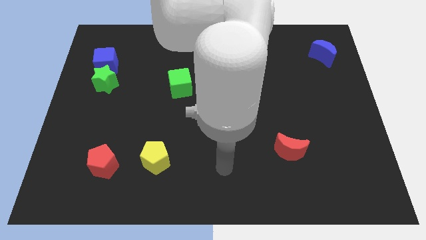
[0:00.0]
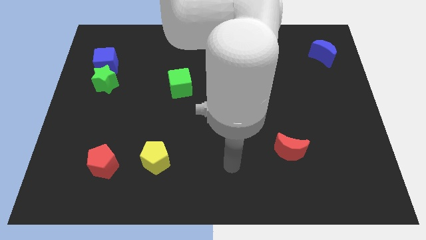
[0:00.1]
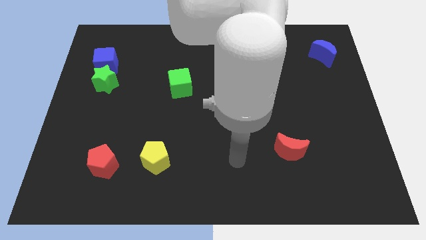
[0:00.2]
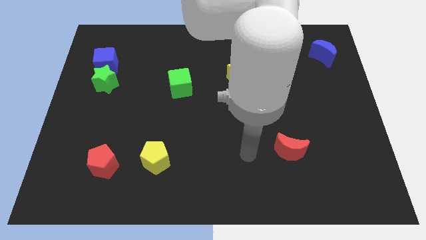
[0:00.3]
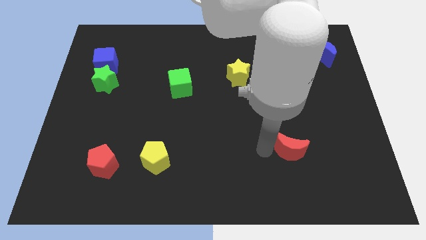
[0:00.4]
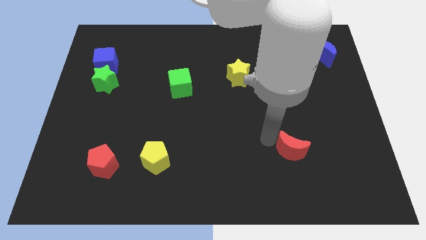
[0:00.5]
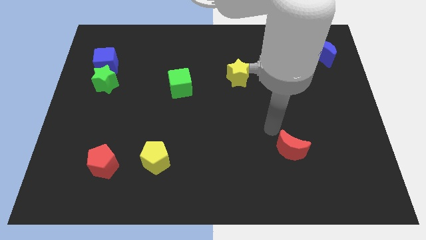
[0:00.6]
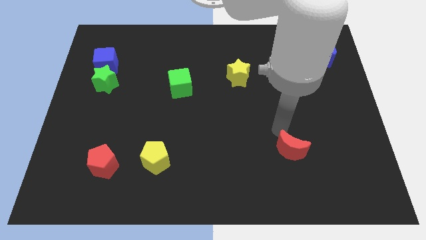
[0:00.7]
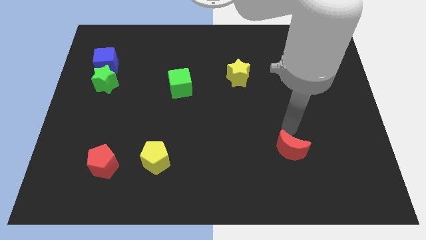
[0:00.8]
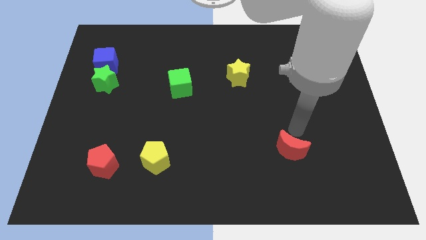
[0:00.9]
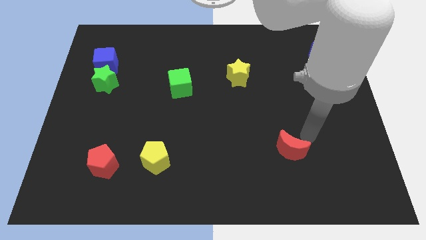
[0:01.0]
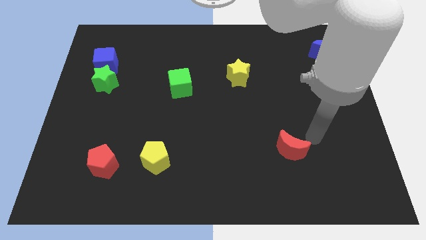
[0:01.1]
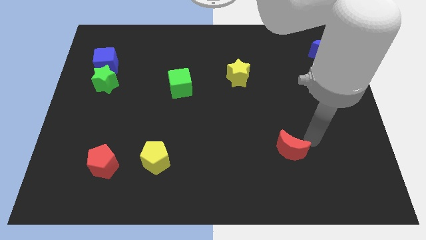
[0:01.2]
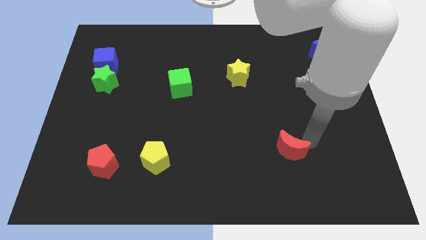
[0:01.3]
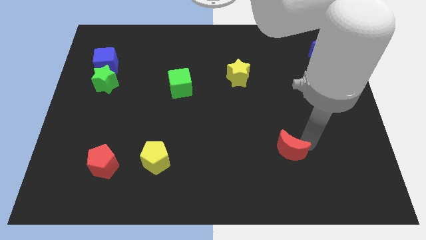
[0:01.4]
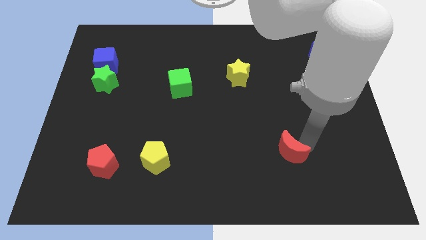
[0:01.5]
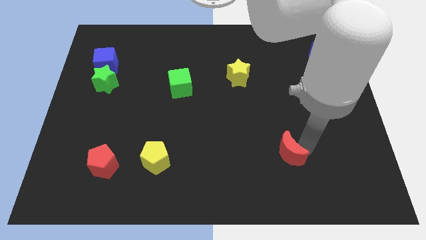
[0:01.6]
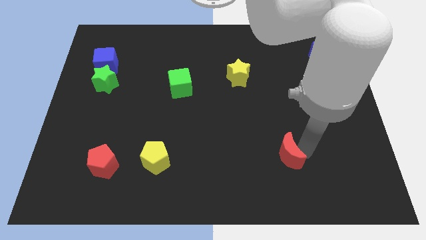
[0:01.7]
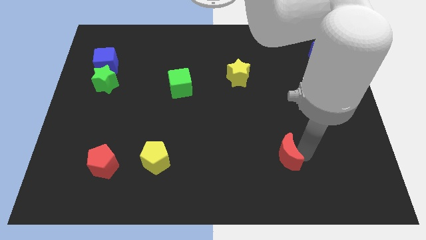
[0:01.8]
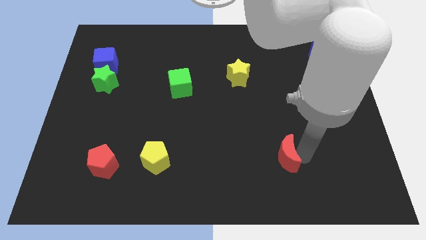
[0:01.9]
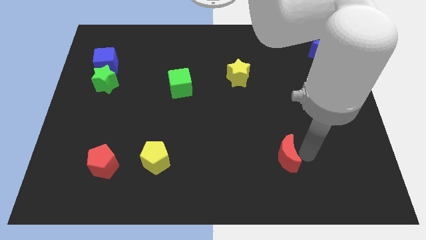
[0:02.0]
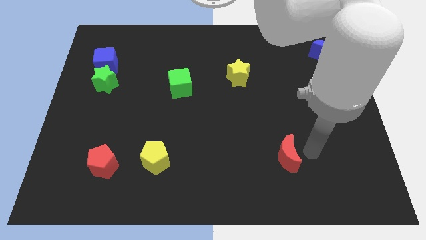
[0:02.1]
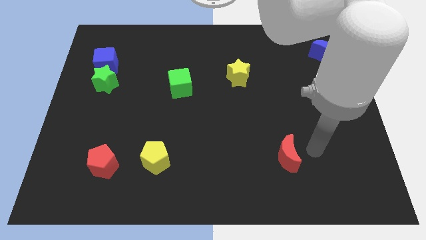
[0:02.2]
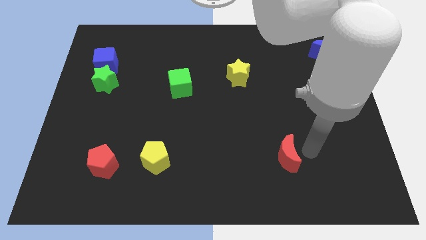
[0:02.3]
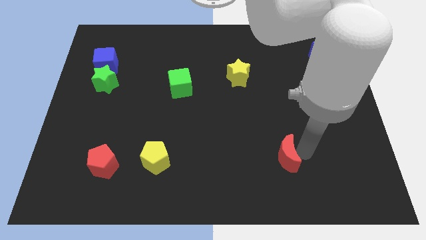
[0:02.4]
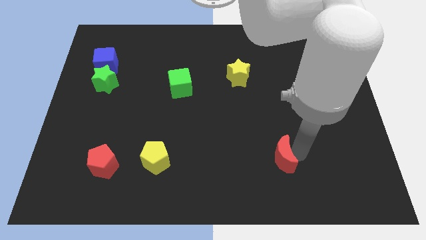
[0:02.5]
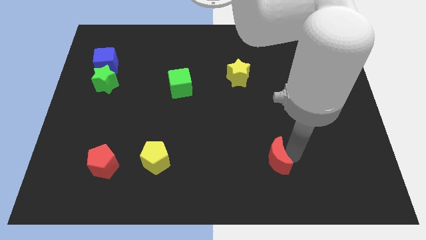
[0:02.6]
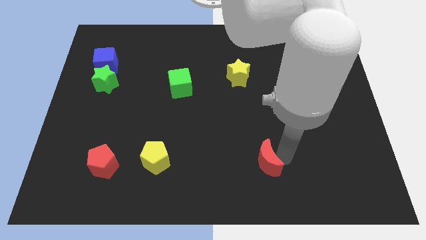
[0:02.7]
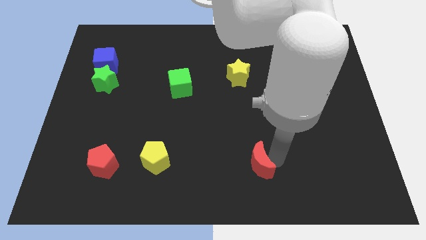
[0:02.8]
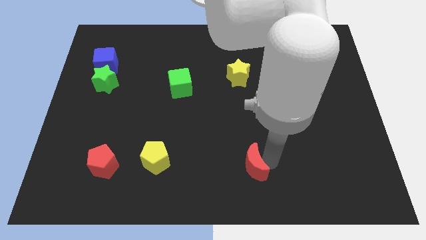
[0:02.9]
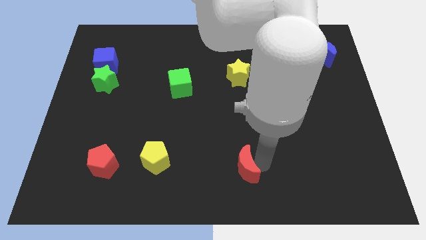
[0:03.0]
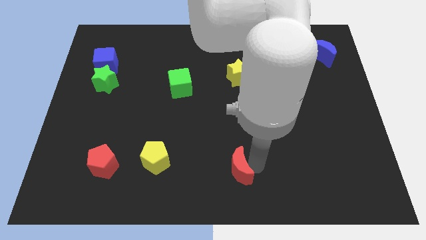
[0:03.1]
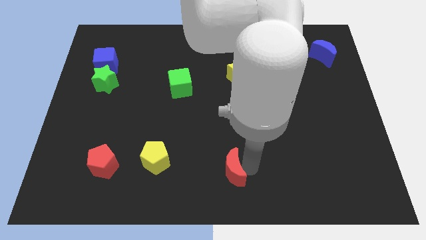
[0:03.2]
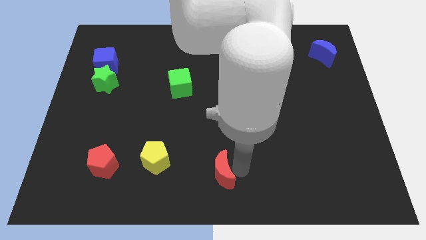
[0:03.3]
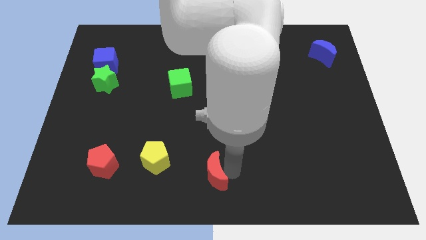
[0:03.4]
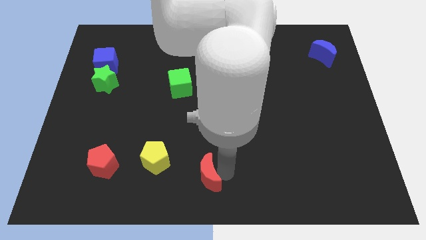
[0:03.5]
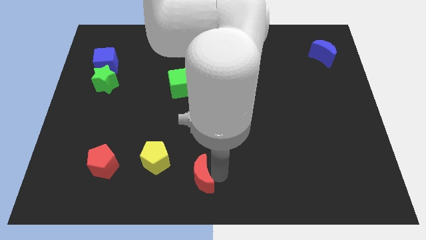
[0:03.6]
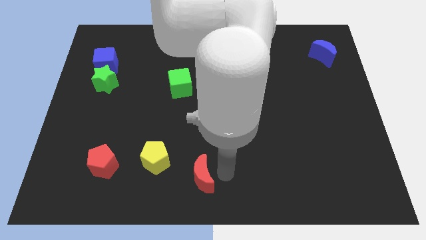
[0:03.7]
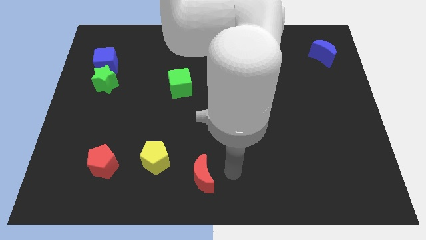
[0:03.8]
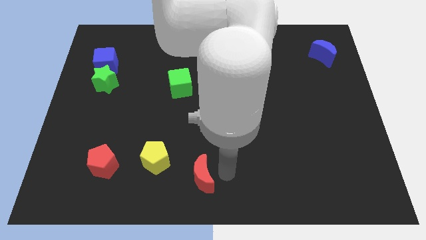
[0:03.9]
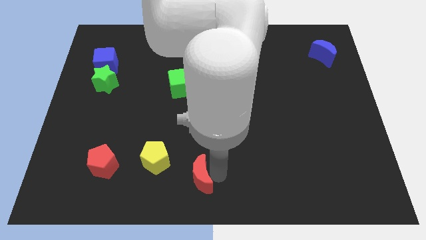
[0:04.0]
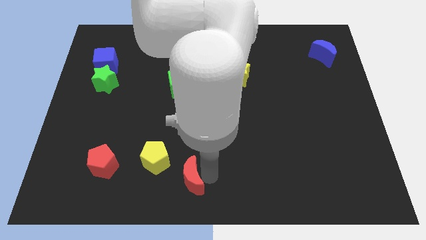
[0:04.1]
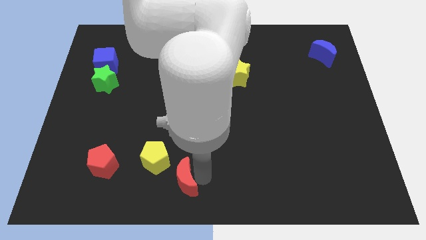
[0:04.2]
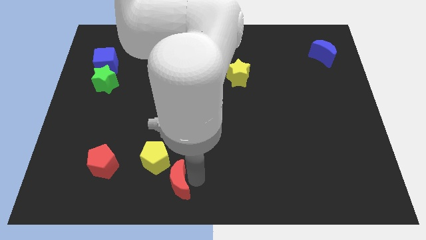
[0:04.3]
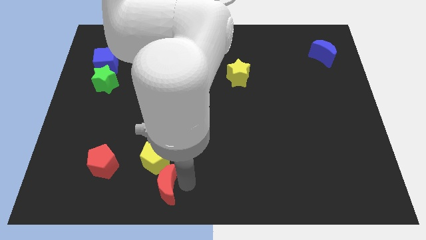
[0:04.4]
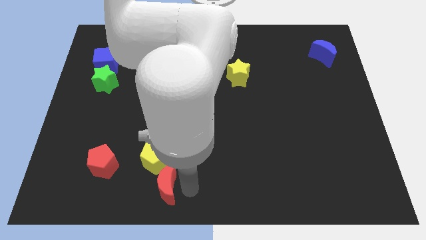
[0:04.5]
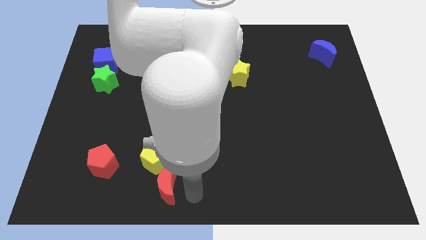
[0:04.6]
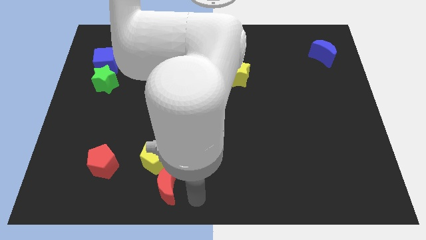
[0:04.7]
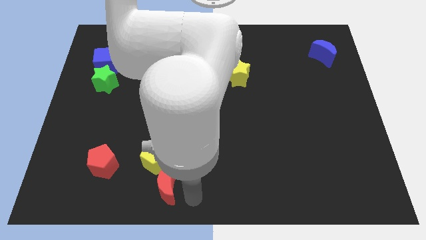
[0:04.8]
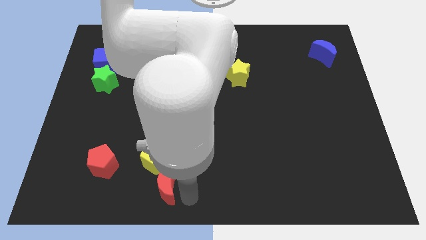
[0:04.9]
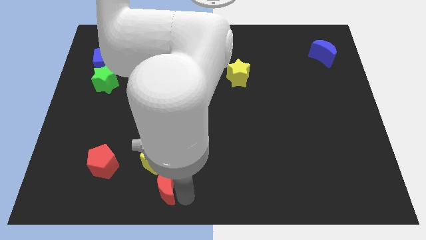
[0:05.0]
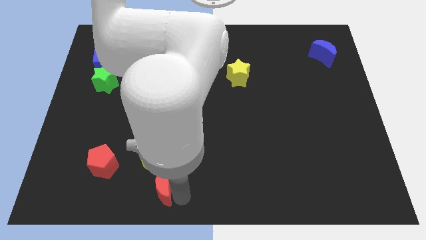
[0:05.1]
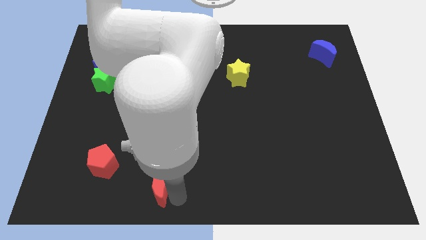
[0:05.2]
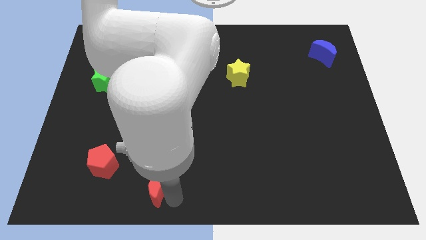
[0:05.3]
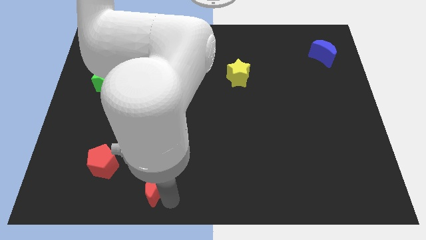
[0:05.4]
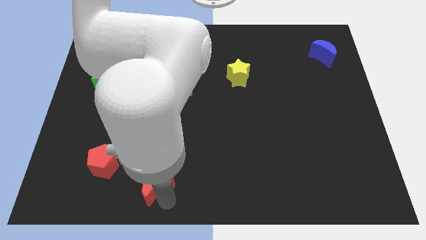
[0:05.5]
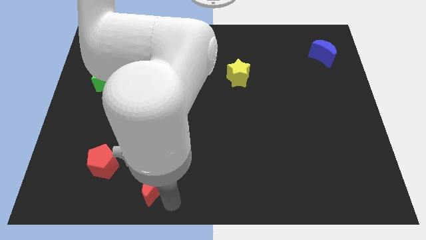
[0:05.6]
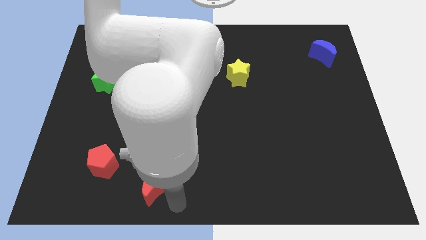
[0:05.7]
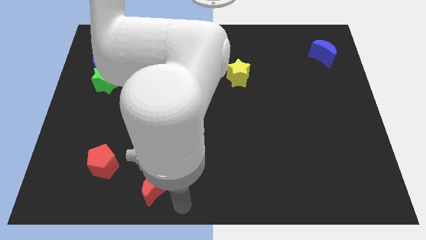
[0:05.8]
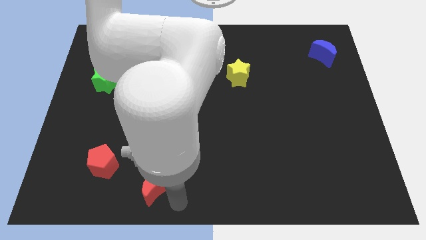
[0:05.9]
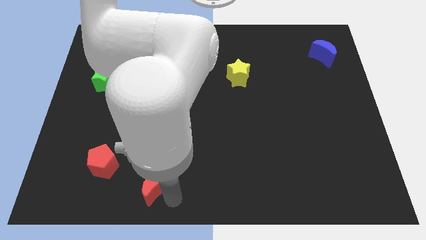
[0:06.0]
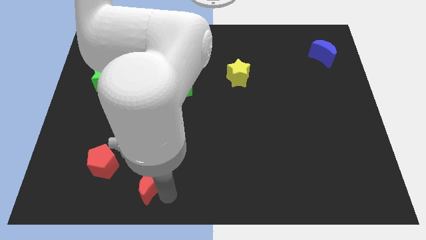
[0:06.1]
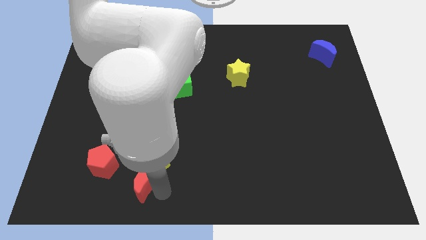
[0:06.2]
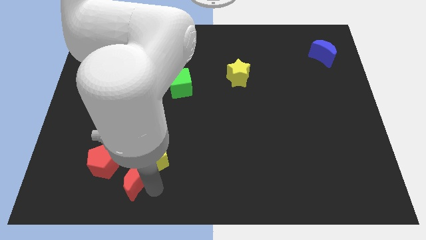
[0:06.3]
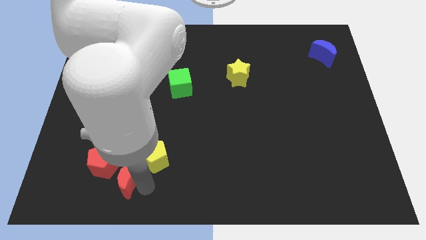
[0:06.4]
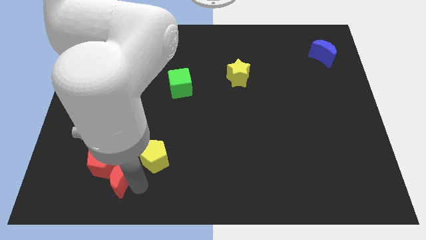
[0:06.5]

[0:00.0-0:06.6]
move the red moon close to the red pentagon

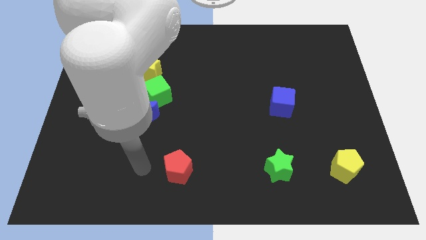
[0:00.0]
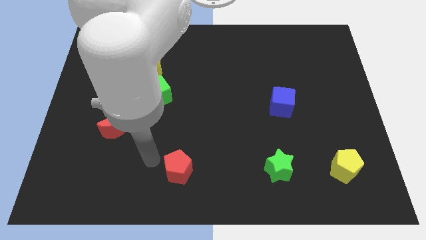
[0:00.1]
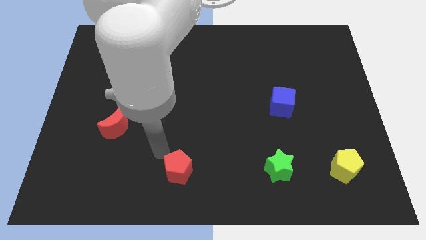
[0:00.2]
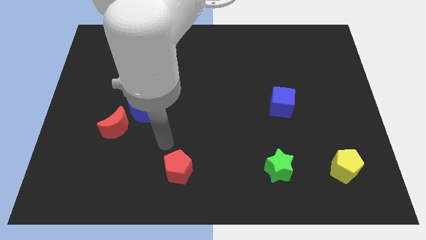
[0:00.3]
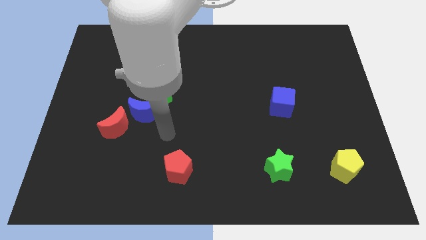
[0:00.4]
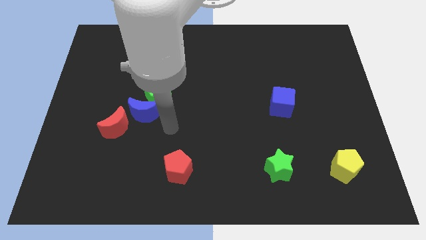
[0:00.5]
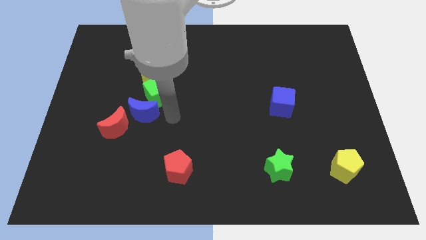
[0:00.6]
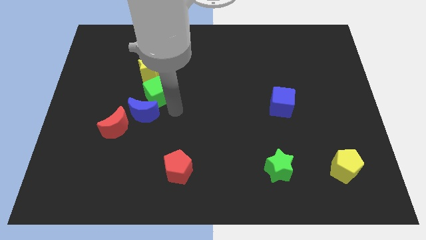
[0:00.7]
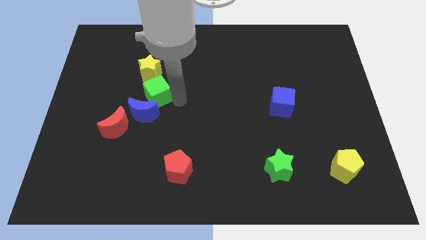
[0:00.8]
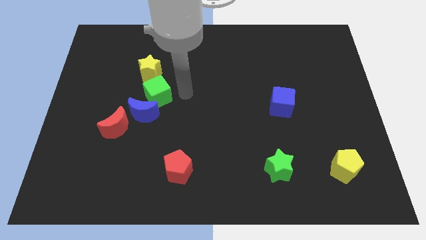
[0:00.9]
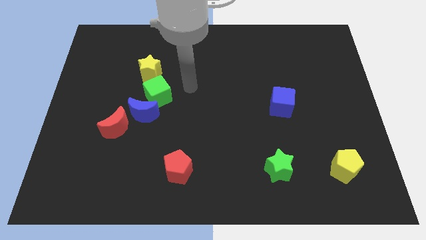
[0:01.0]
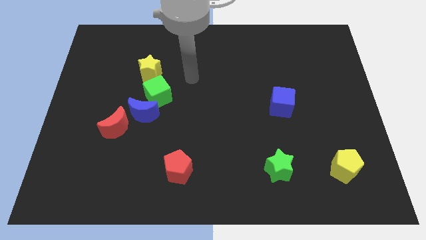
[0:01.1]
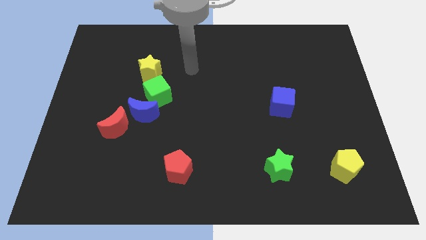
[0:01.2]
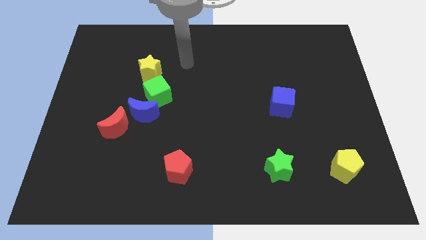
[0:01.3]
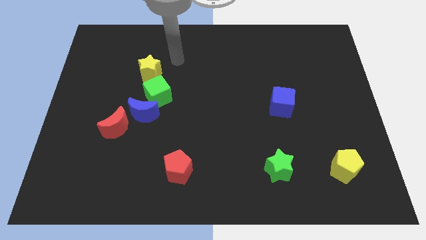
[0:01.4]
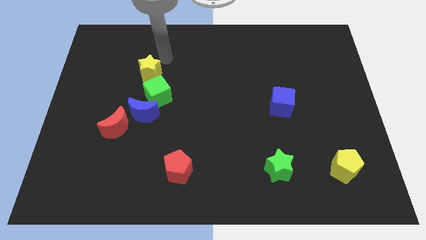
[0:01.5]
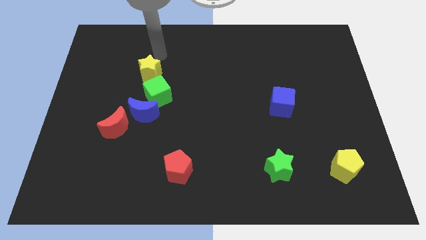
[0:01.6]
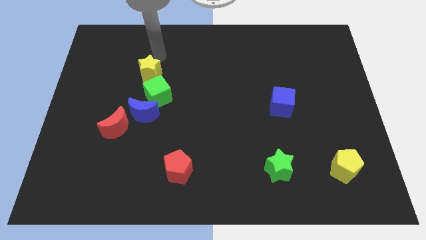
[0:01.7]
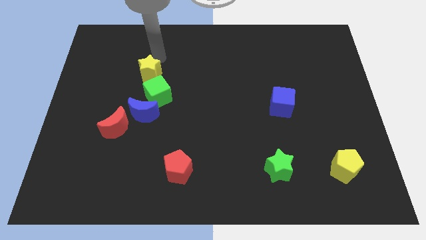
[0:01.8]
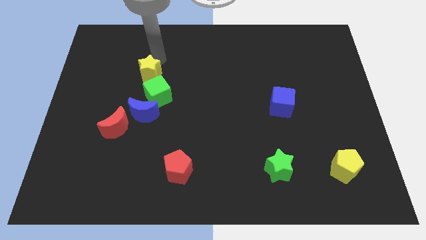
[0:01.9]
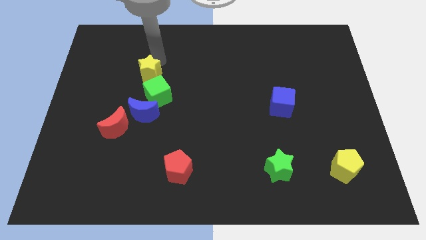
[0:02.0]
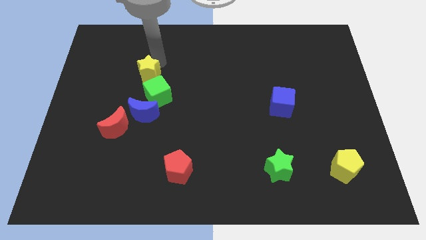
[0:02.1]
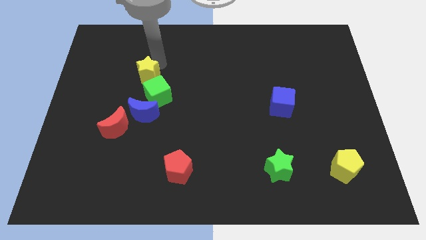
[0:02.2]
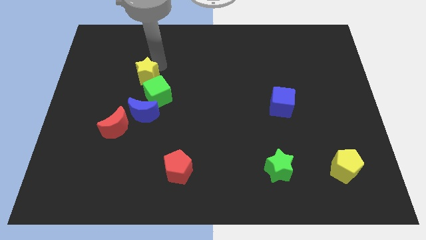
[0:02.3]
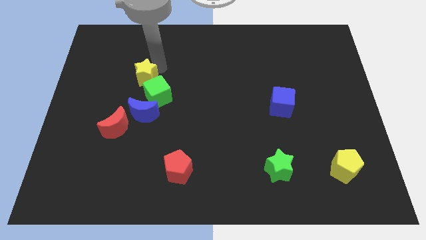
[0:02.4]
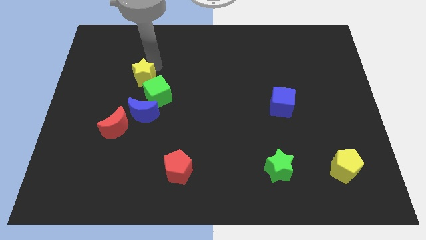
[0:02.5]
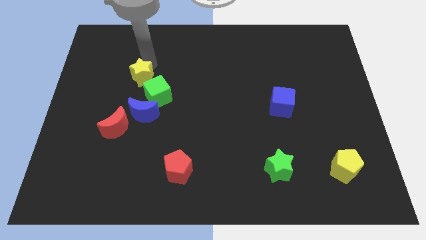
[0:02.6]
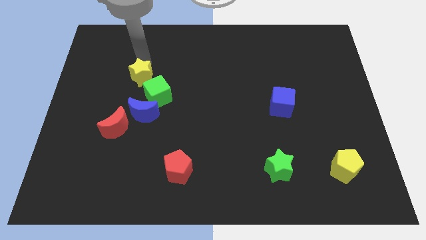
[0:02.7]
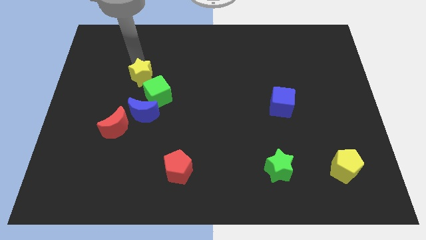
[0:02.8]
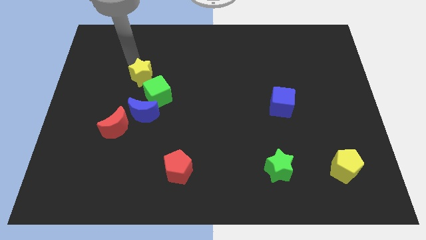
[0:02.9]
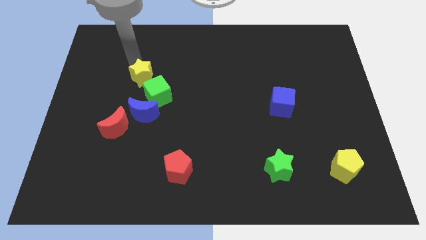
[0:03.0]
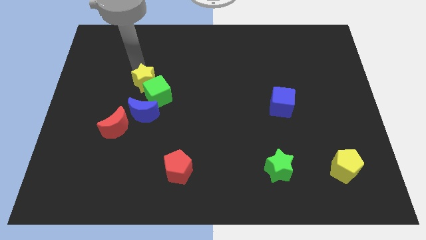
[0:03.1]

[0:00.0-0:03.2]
slide the yellow star next to the green cube
